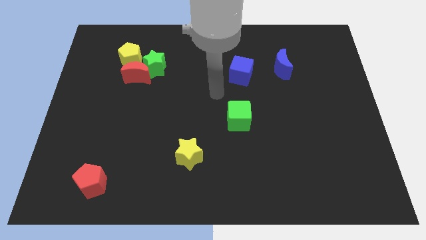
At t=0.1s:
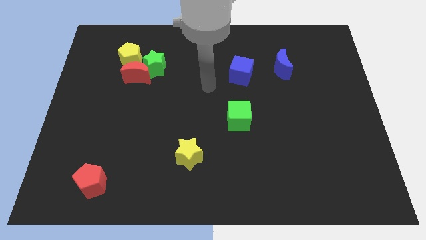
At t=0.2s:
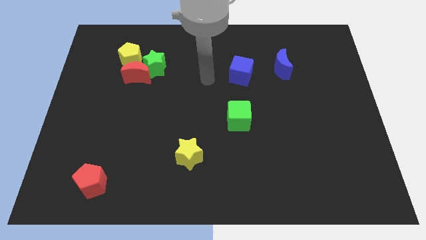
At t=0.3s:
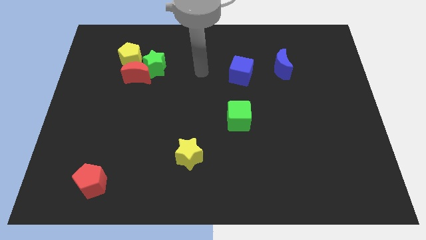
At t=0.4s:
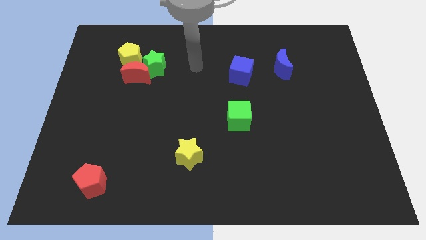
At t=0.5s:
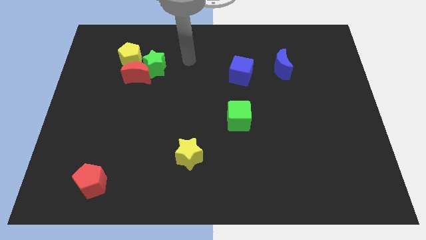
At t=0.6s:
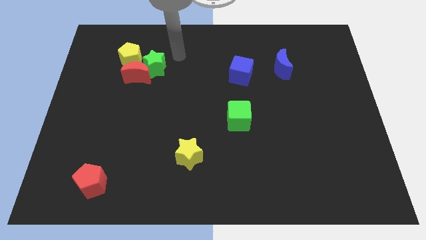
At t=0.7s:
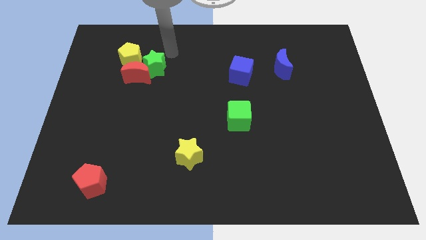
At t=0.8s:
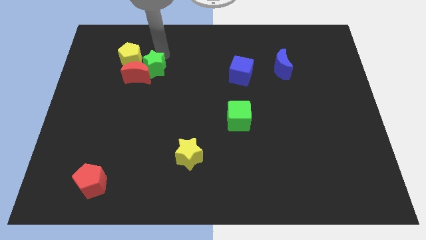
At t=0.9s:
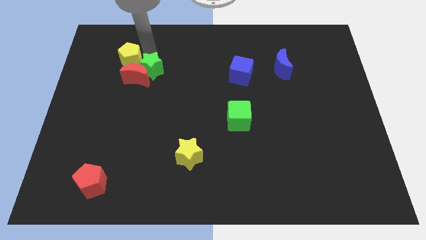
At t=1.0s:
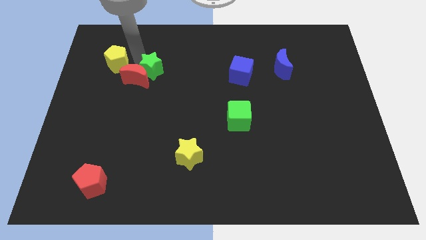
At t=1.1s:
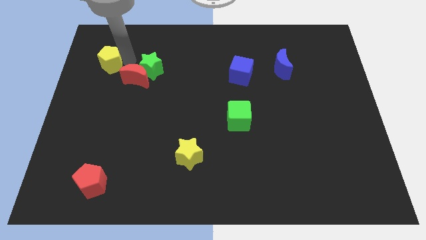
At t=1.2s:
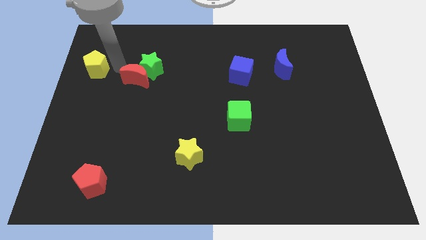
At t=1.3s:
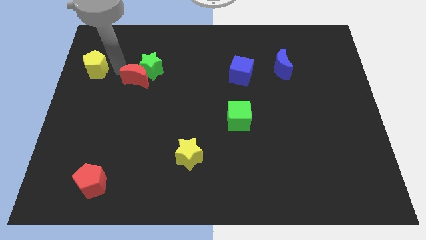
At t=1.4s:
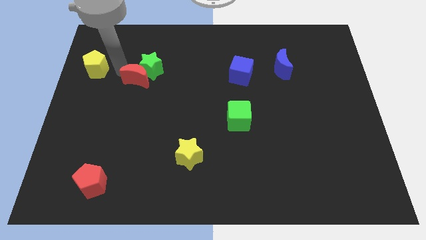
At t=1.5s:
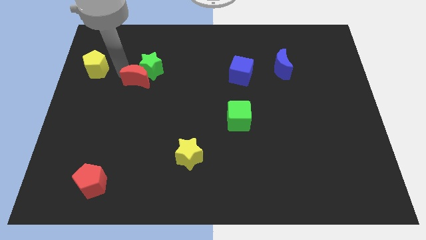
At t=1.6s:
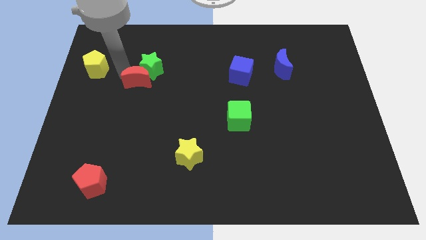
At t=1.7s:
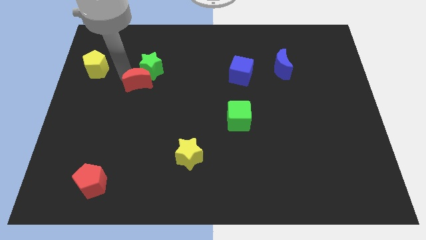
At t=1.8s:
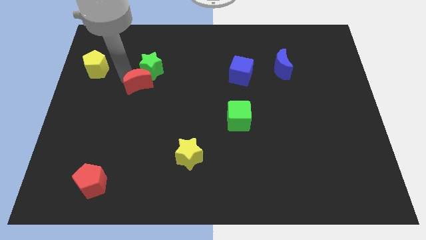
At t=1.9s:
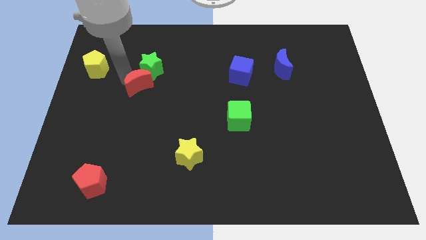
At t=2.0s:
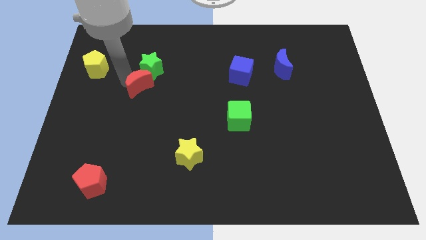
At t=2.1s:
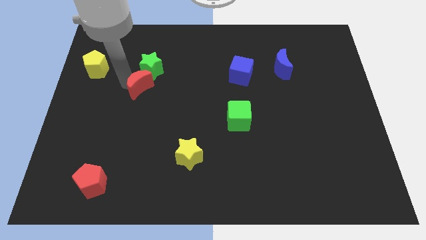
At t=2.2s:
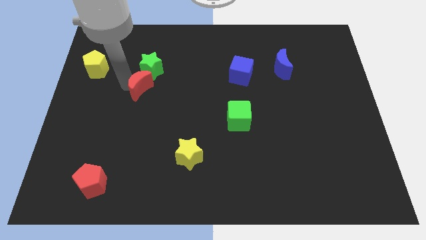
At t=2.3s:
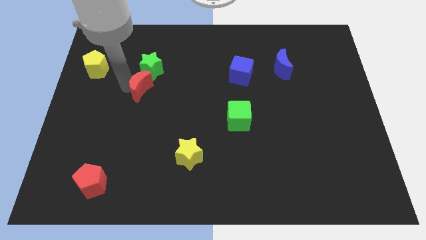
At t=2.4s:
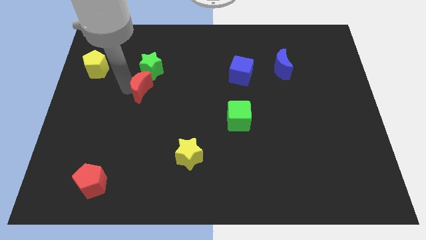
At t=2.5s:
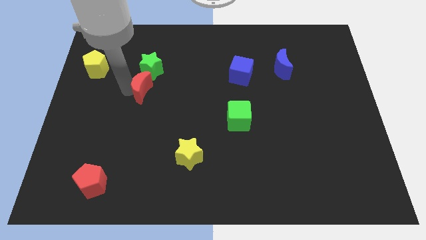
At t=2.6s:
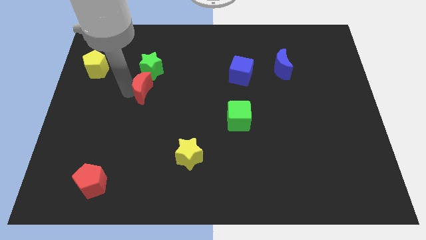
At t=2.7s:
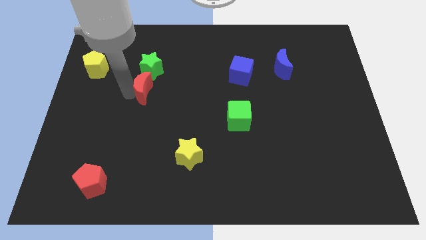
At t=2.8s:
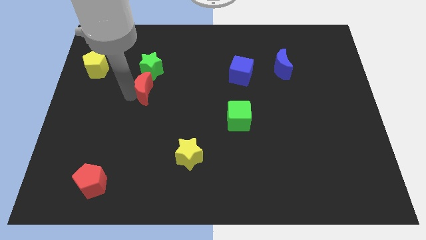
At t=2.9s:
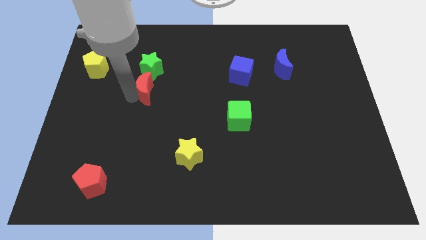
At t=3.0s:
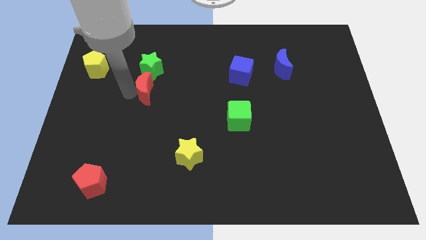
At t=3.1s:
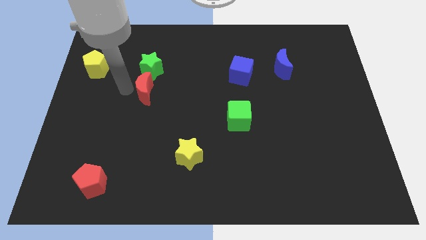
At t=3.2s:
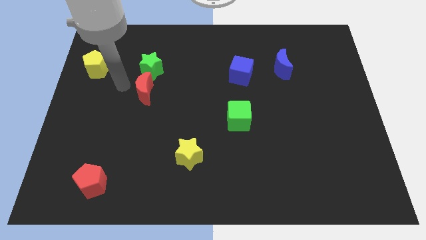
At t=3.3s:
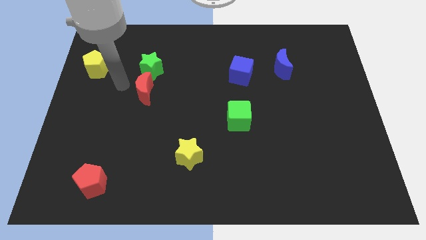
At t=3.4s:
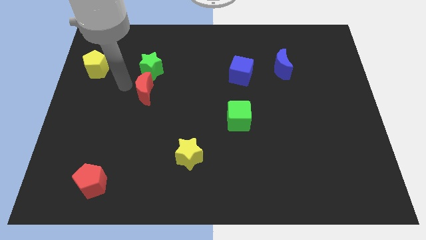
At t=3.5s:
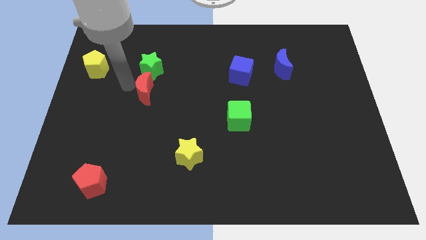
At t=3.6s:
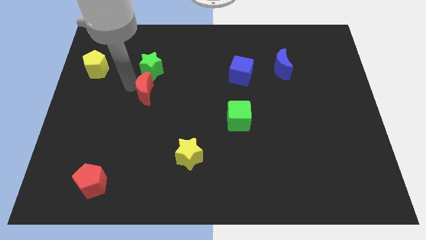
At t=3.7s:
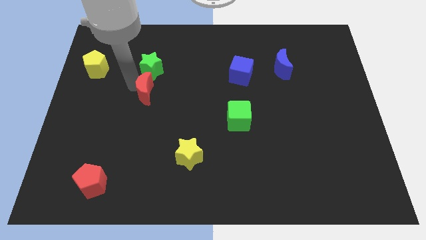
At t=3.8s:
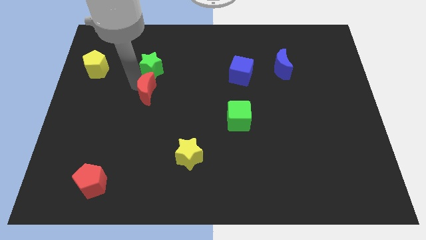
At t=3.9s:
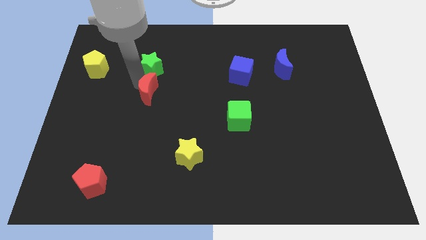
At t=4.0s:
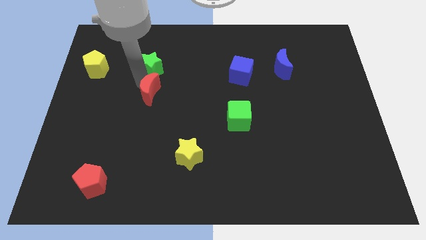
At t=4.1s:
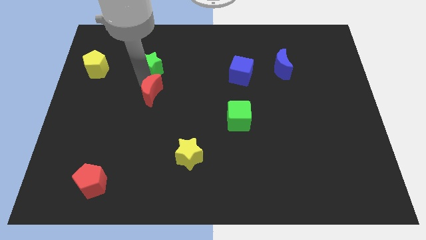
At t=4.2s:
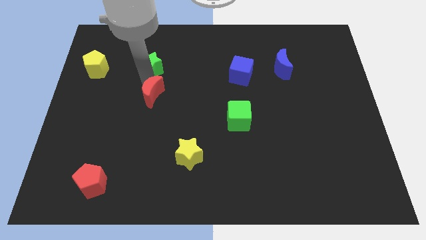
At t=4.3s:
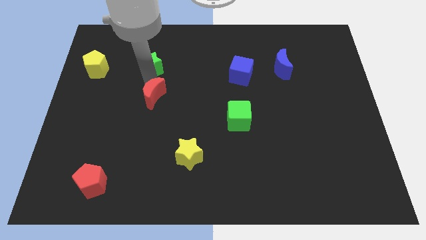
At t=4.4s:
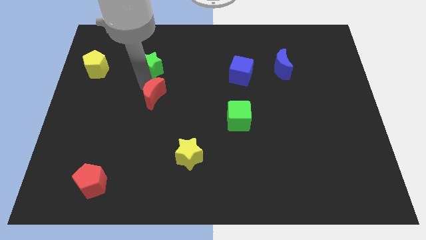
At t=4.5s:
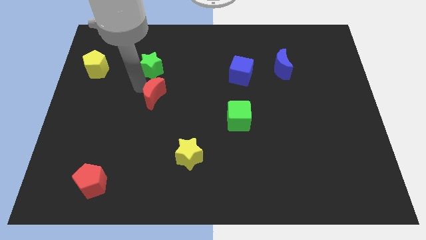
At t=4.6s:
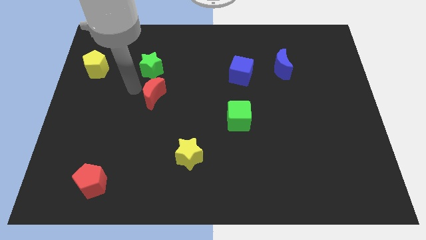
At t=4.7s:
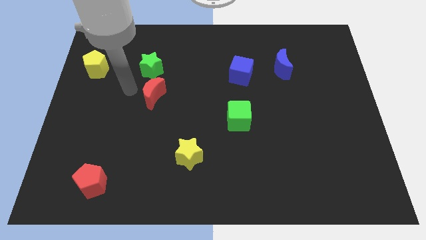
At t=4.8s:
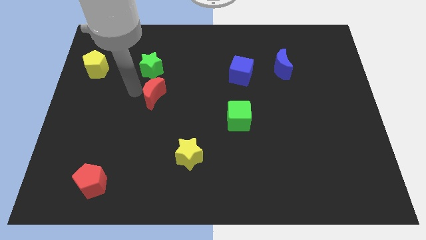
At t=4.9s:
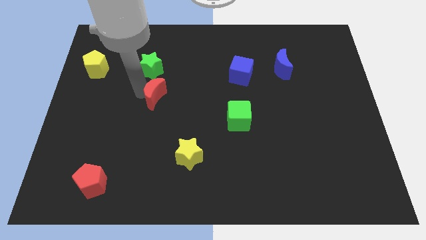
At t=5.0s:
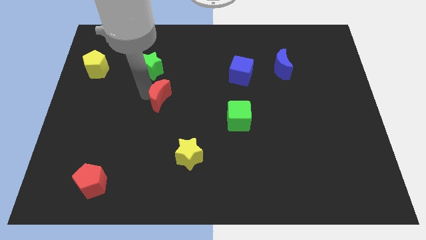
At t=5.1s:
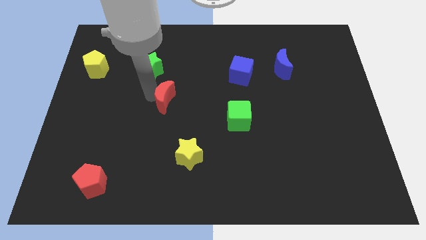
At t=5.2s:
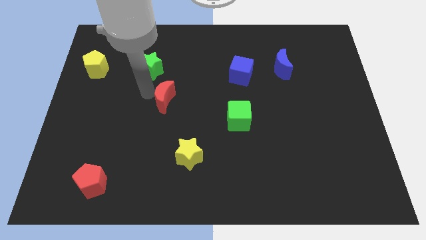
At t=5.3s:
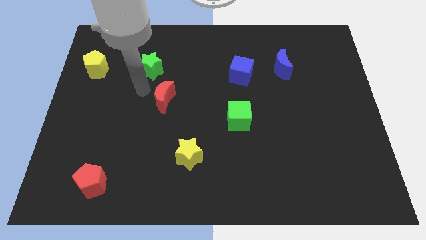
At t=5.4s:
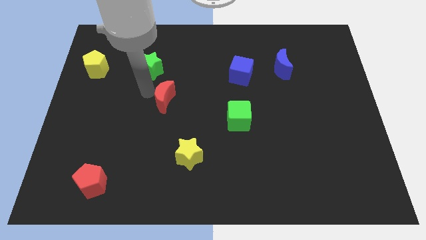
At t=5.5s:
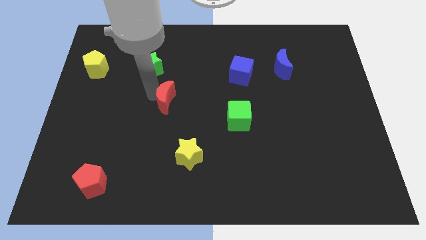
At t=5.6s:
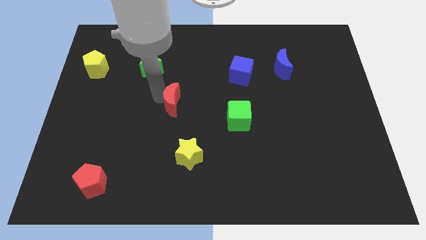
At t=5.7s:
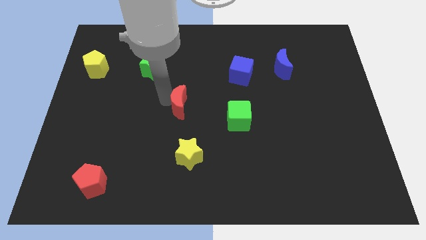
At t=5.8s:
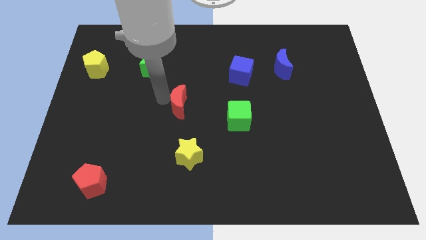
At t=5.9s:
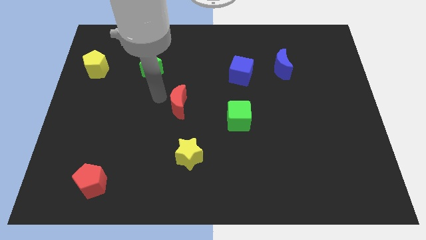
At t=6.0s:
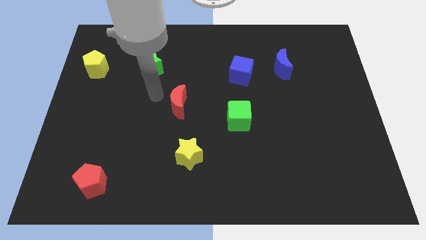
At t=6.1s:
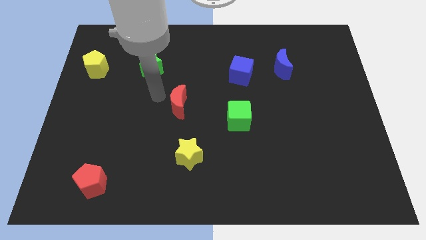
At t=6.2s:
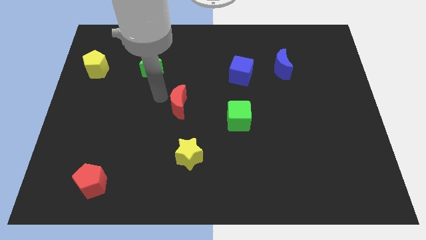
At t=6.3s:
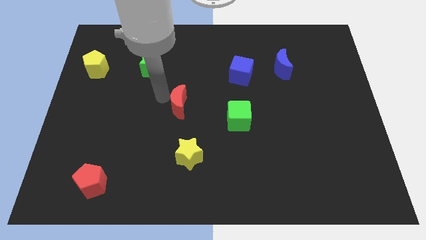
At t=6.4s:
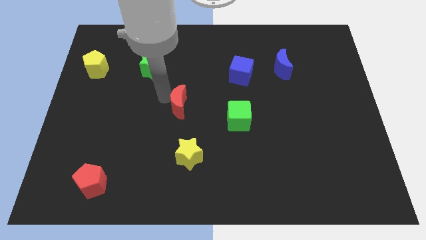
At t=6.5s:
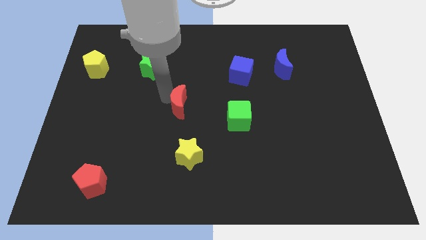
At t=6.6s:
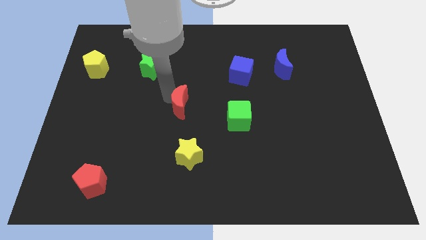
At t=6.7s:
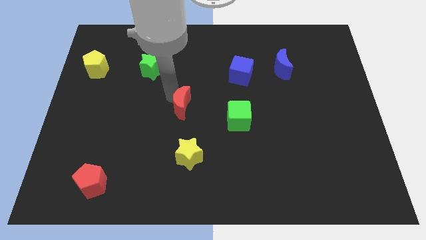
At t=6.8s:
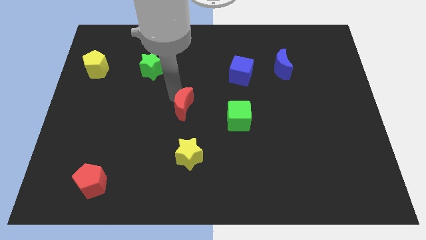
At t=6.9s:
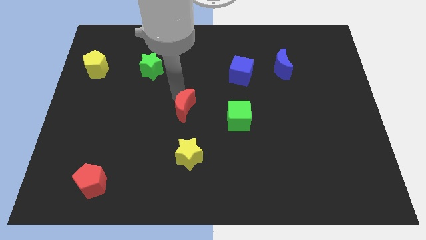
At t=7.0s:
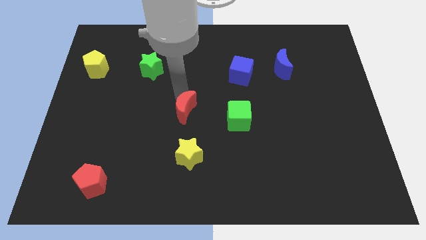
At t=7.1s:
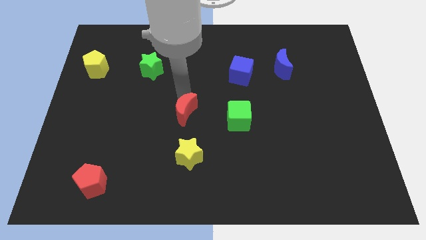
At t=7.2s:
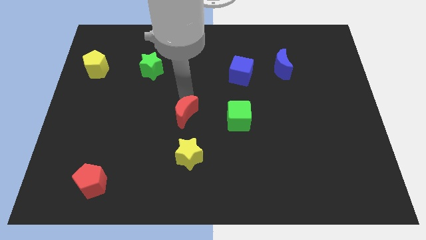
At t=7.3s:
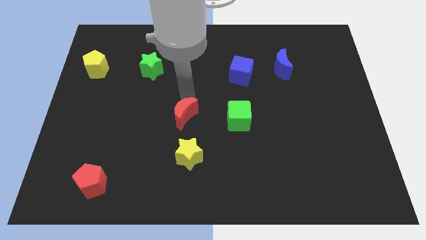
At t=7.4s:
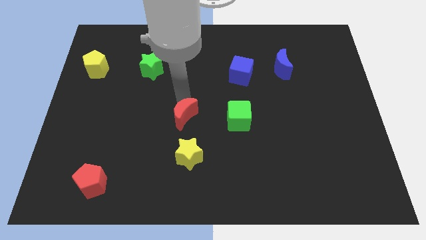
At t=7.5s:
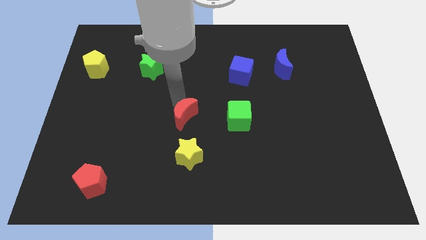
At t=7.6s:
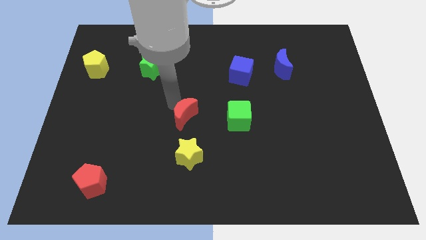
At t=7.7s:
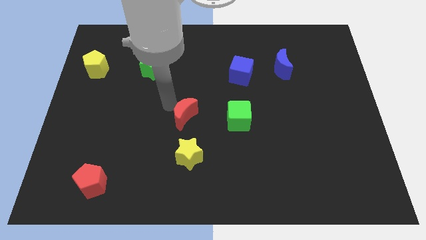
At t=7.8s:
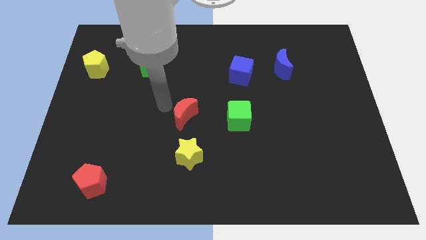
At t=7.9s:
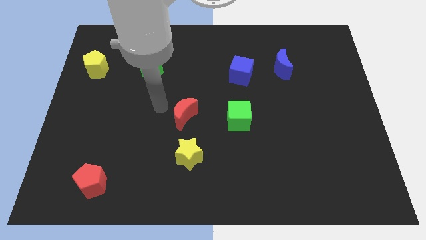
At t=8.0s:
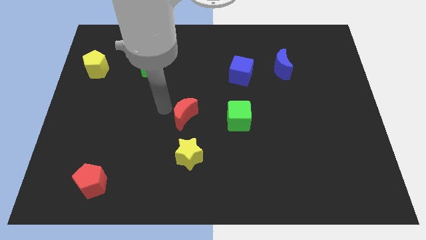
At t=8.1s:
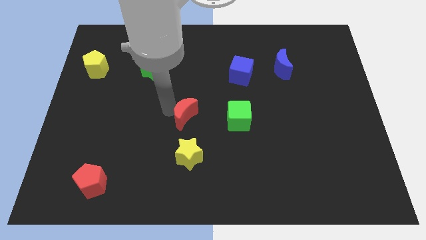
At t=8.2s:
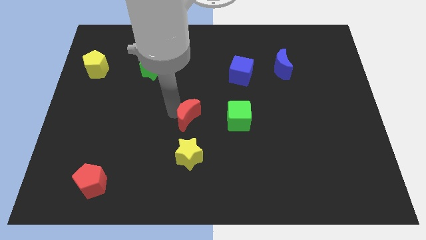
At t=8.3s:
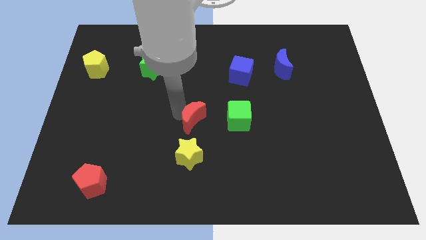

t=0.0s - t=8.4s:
push the red moon downwards and to the right diagonally
